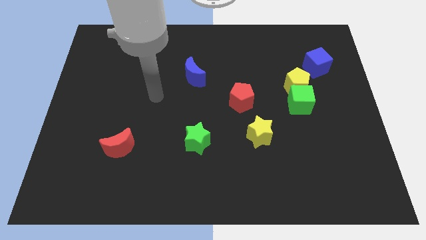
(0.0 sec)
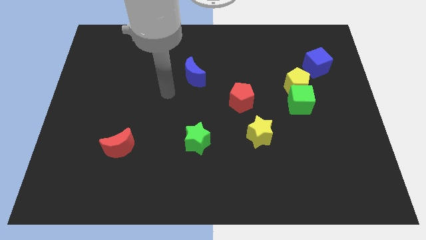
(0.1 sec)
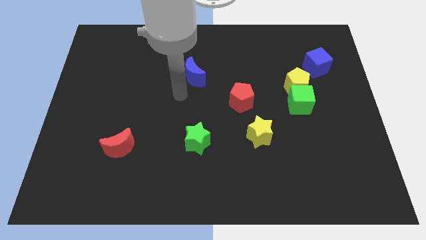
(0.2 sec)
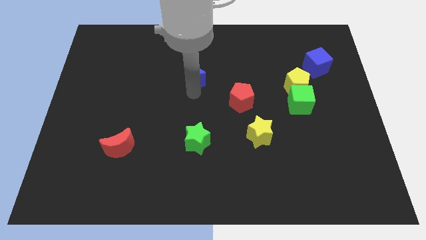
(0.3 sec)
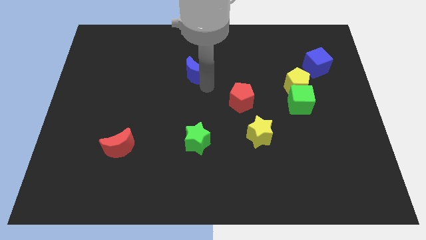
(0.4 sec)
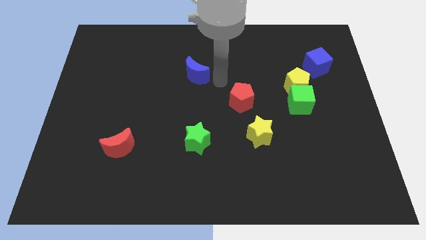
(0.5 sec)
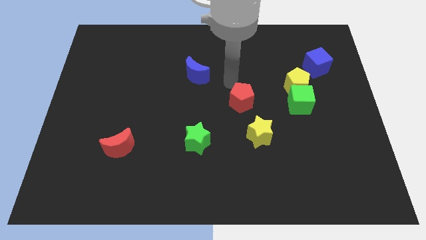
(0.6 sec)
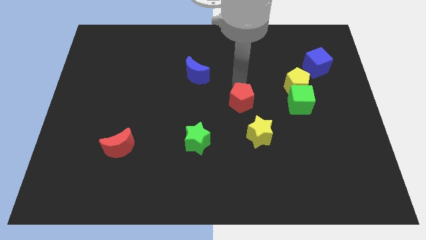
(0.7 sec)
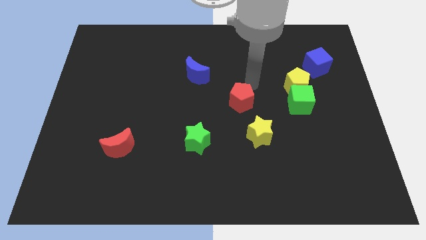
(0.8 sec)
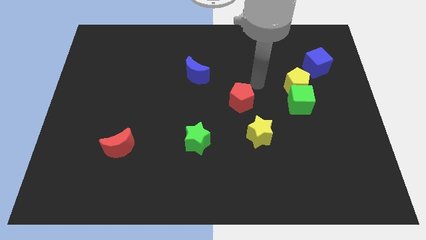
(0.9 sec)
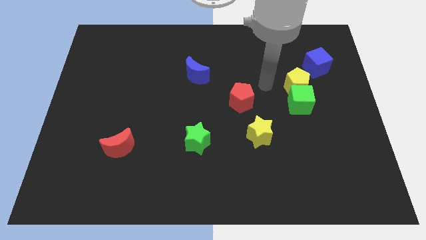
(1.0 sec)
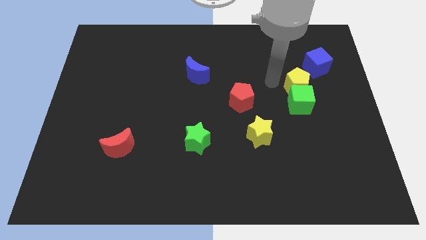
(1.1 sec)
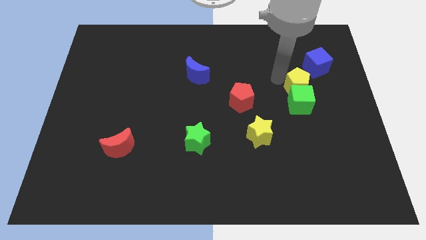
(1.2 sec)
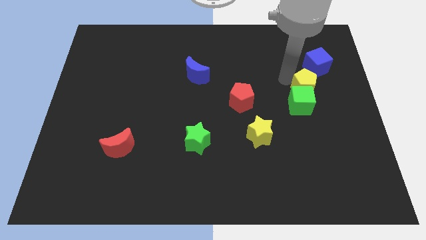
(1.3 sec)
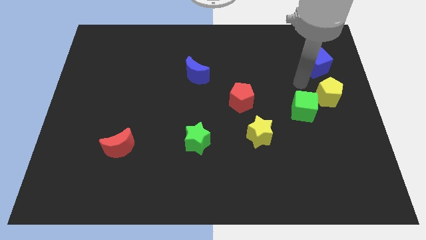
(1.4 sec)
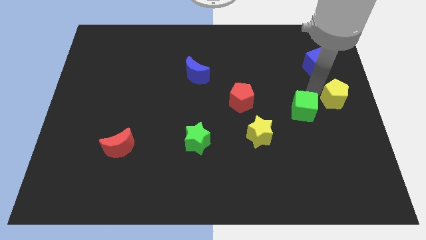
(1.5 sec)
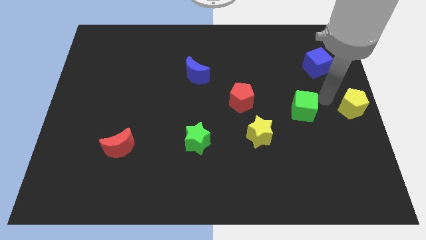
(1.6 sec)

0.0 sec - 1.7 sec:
move the green cube away from the yellow pentagon

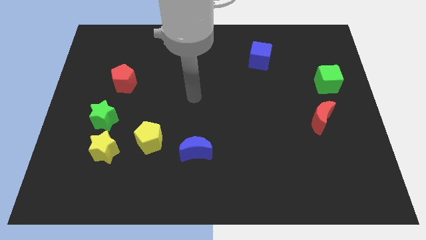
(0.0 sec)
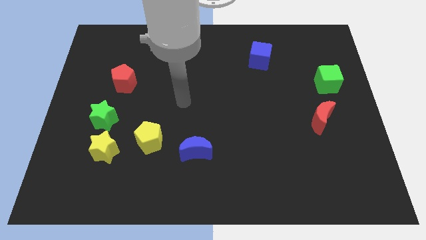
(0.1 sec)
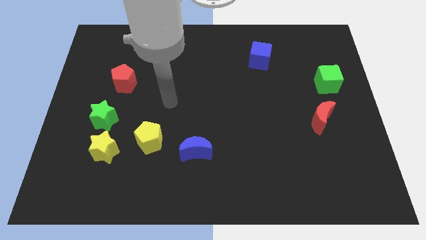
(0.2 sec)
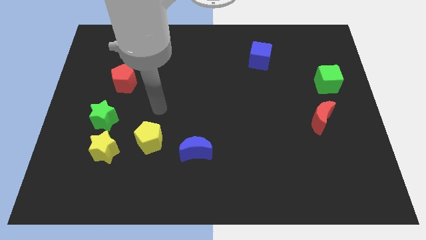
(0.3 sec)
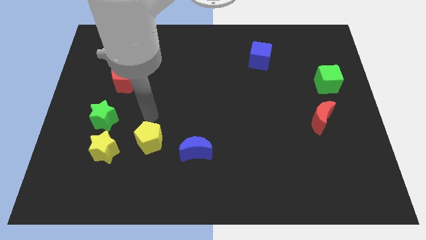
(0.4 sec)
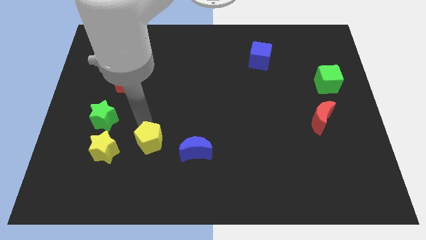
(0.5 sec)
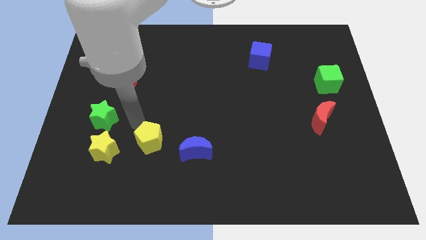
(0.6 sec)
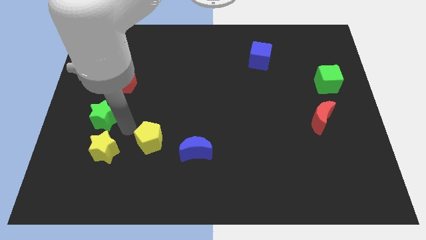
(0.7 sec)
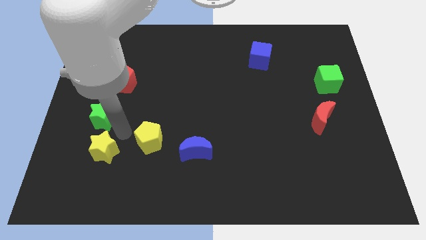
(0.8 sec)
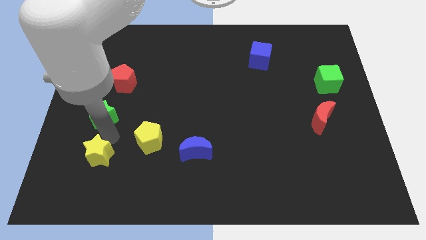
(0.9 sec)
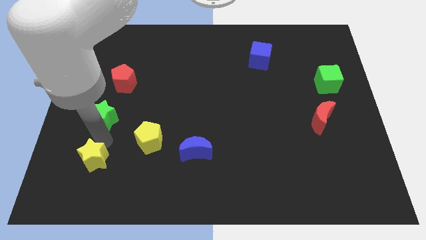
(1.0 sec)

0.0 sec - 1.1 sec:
separate the green star from the yellow star

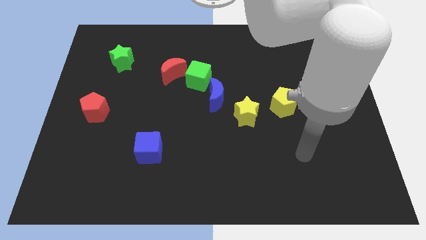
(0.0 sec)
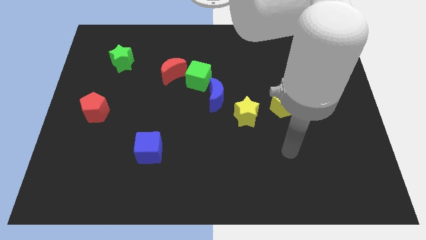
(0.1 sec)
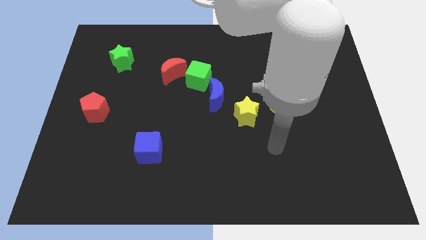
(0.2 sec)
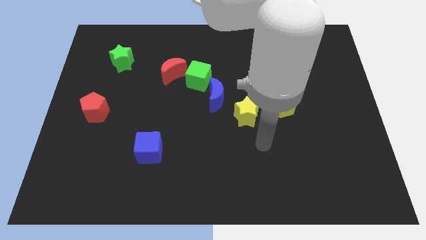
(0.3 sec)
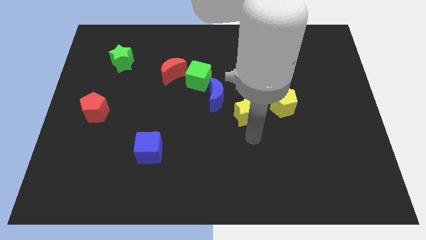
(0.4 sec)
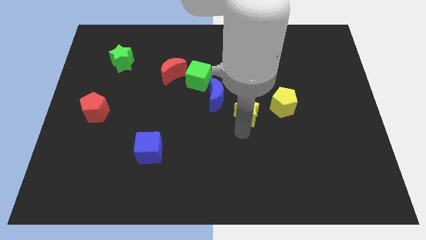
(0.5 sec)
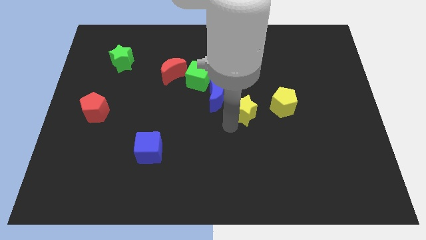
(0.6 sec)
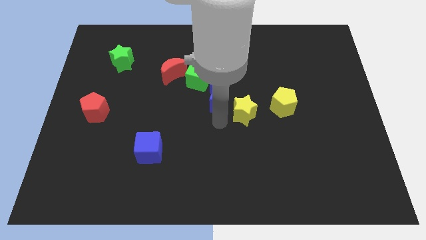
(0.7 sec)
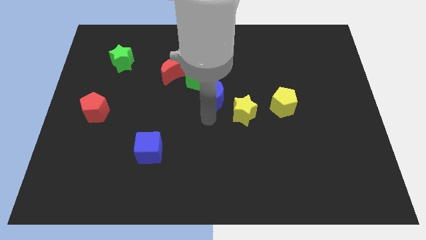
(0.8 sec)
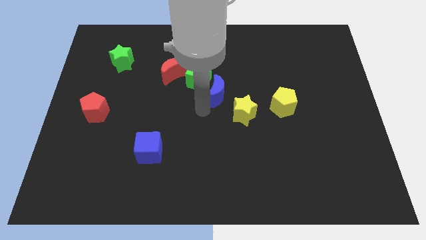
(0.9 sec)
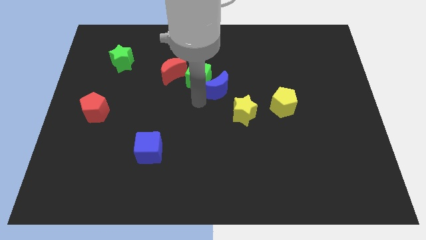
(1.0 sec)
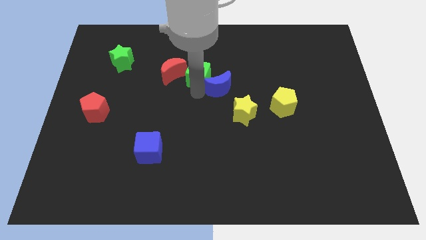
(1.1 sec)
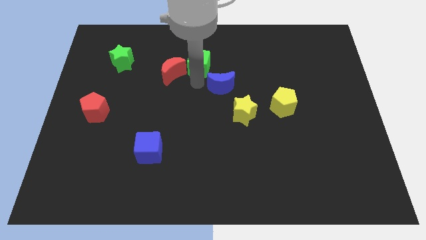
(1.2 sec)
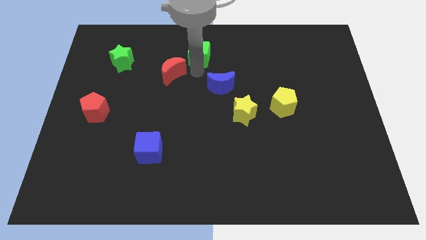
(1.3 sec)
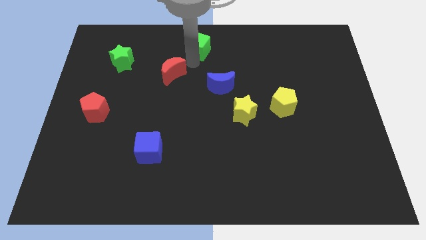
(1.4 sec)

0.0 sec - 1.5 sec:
pull the red moon apart from the green cube

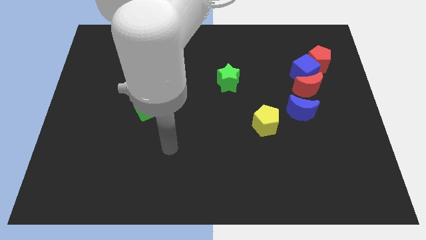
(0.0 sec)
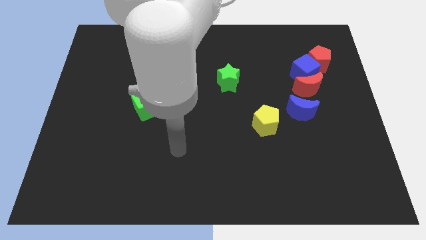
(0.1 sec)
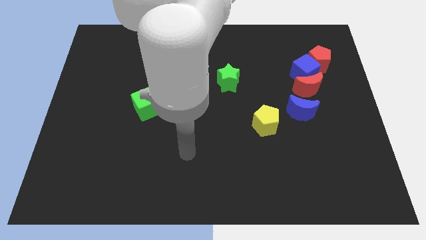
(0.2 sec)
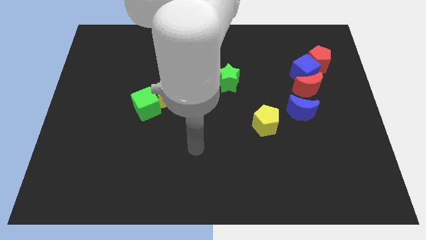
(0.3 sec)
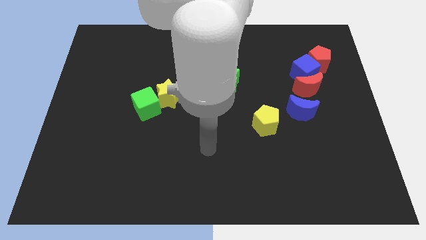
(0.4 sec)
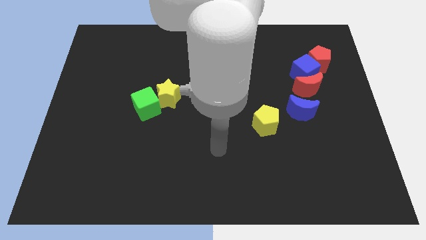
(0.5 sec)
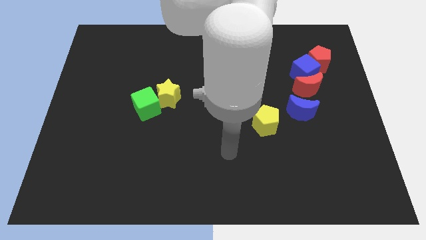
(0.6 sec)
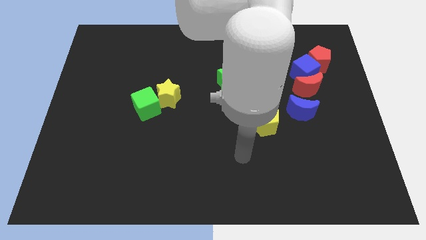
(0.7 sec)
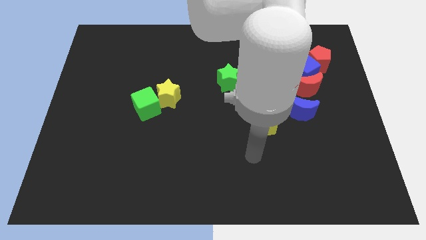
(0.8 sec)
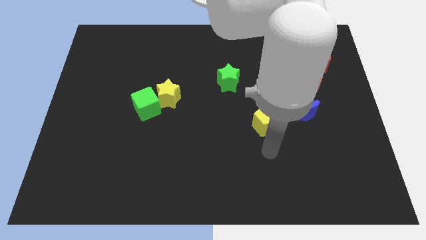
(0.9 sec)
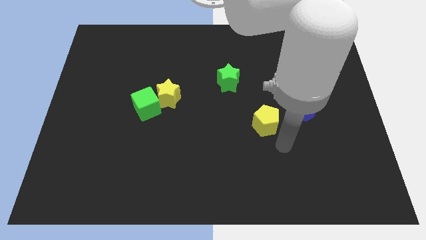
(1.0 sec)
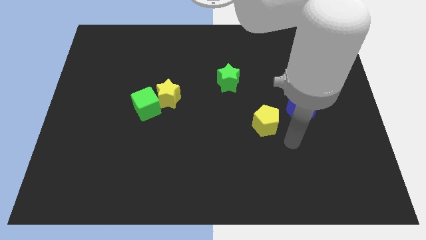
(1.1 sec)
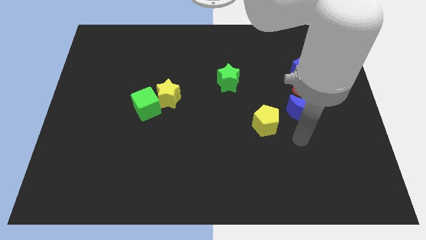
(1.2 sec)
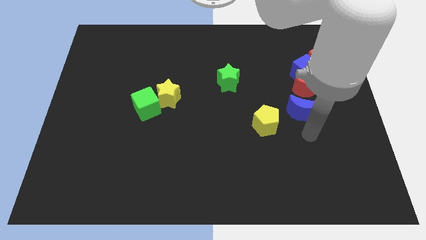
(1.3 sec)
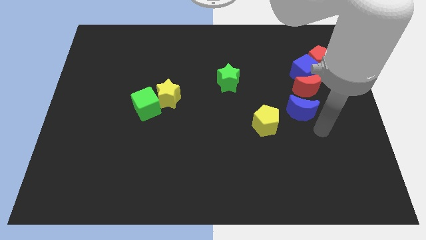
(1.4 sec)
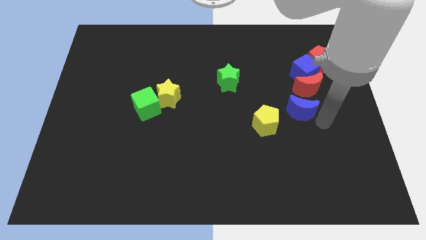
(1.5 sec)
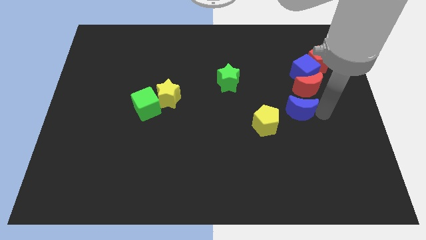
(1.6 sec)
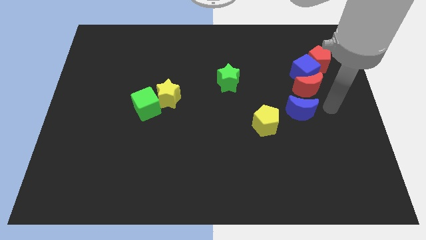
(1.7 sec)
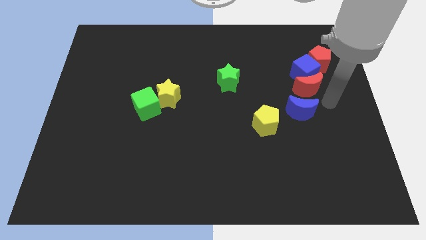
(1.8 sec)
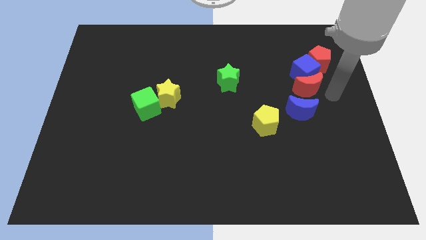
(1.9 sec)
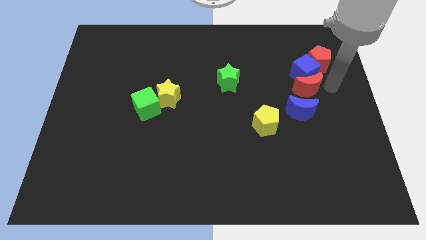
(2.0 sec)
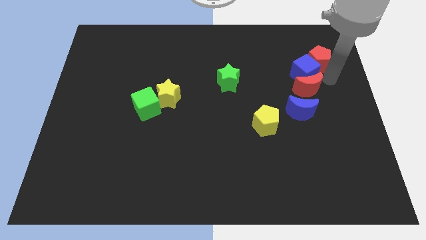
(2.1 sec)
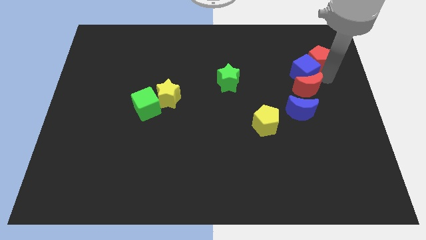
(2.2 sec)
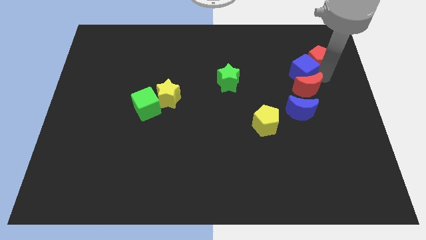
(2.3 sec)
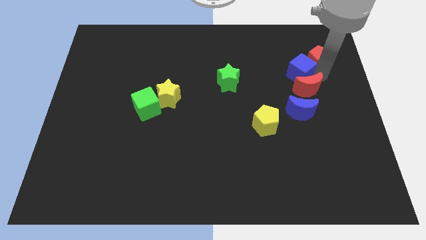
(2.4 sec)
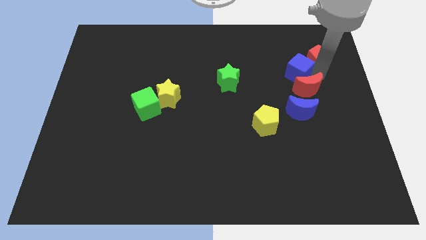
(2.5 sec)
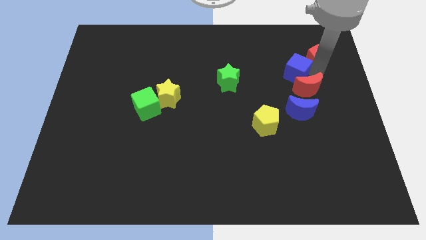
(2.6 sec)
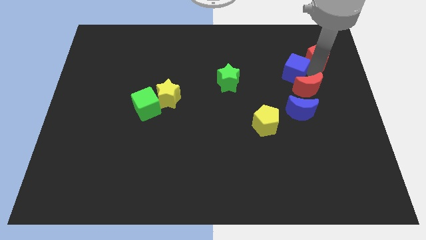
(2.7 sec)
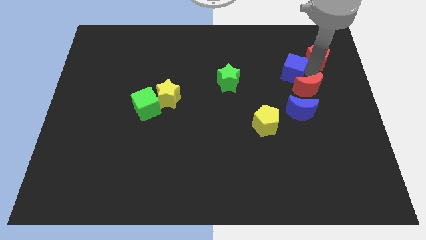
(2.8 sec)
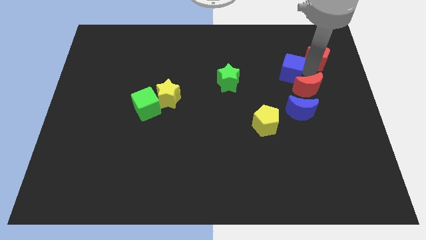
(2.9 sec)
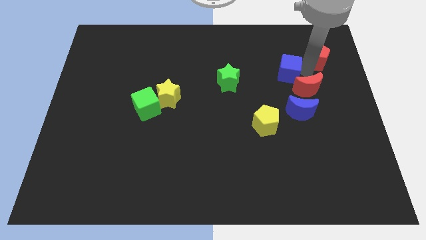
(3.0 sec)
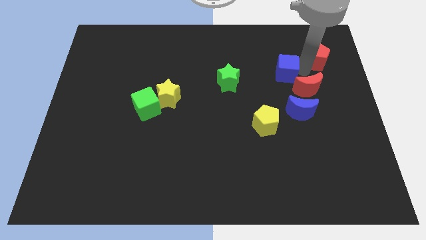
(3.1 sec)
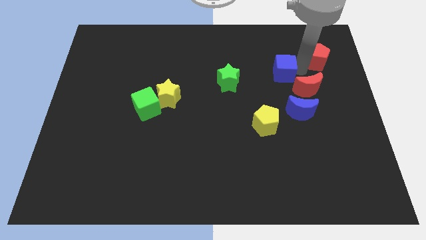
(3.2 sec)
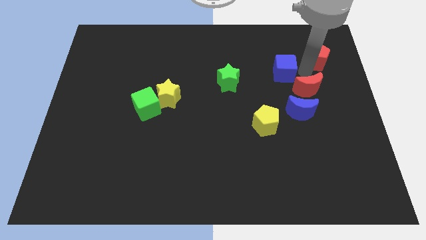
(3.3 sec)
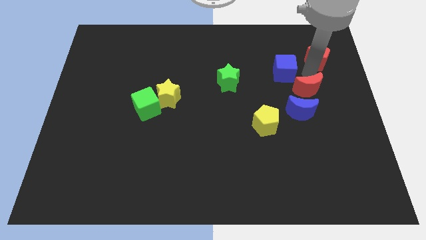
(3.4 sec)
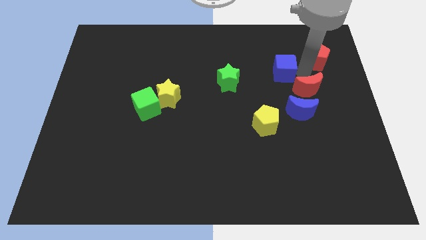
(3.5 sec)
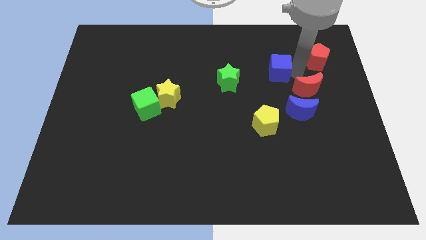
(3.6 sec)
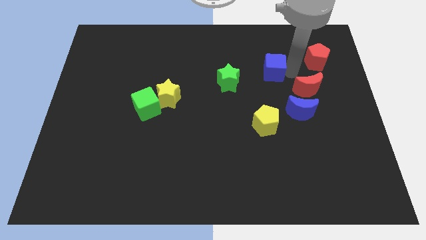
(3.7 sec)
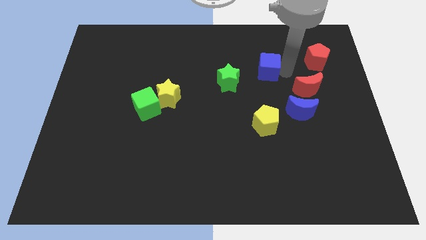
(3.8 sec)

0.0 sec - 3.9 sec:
move the blue cube away from the red moon and red pentagon

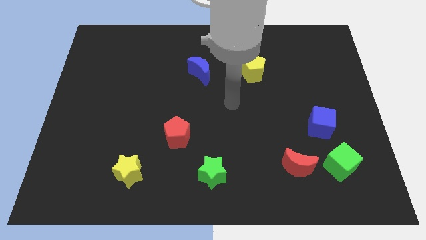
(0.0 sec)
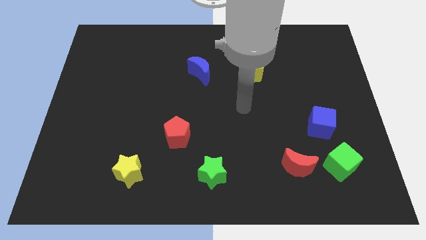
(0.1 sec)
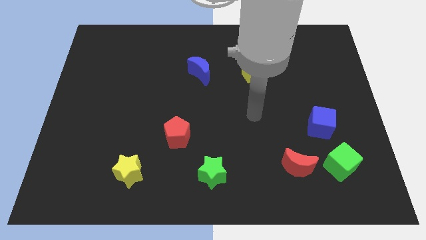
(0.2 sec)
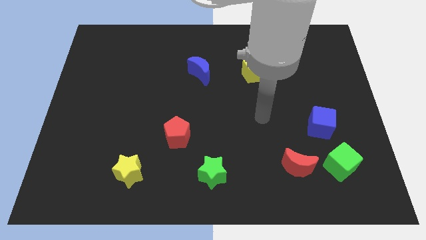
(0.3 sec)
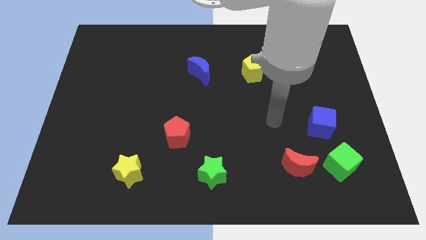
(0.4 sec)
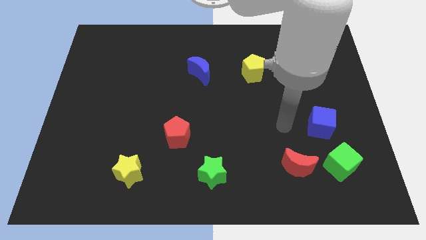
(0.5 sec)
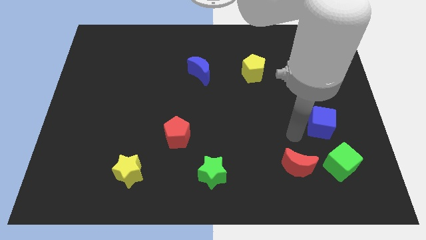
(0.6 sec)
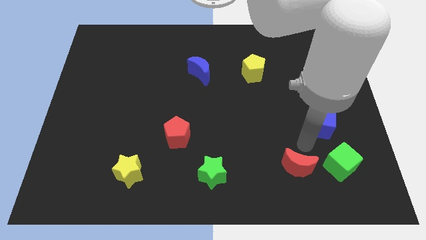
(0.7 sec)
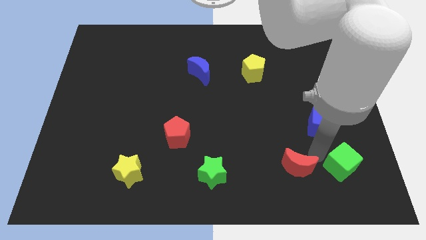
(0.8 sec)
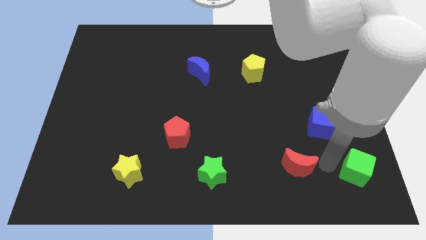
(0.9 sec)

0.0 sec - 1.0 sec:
move the red moon away from the green cube

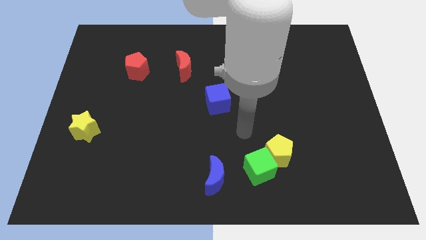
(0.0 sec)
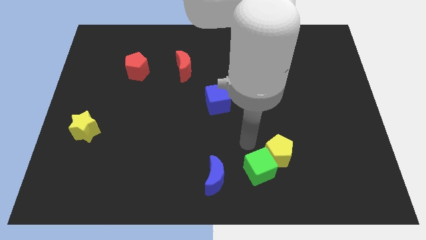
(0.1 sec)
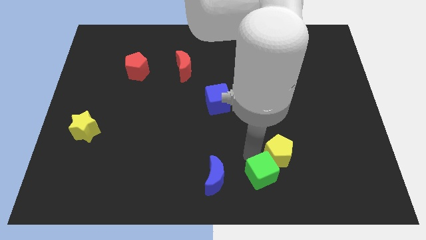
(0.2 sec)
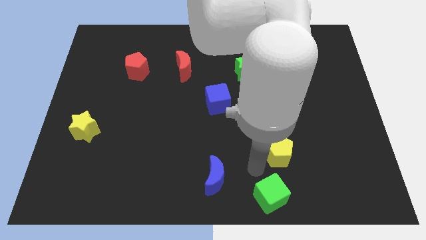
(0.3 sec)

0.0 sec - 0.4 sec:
separate the yellow pentagon from the green cube
